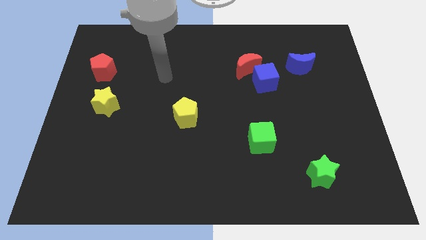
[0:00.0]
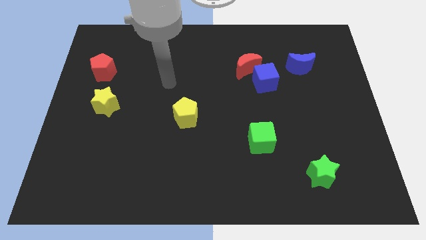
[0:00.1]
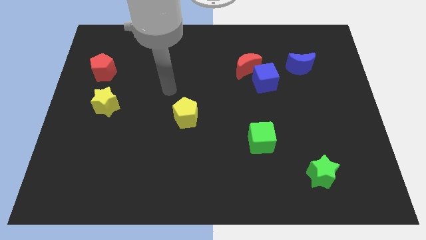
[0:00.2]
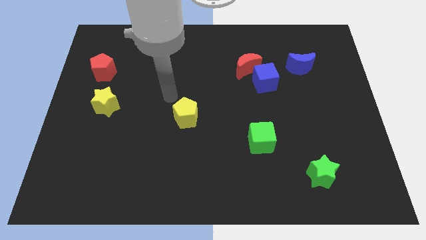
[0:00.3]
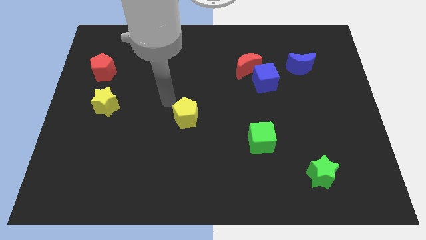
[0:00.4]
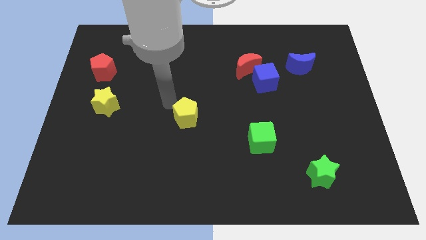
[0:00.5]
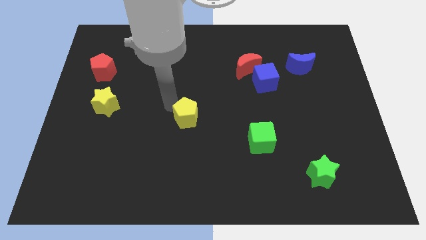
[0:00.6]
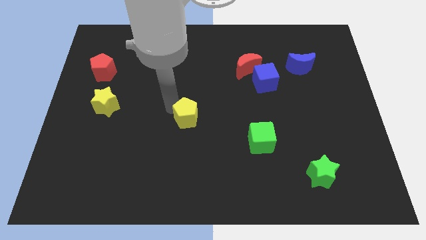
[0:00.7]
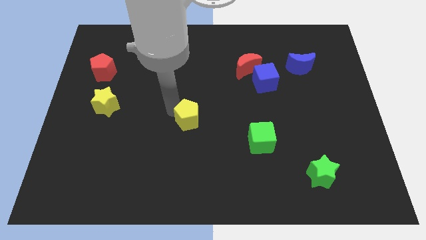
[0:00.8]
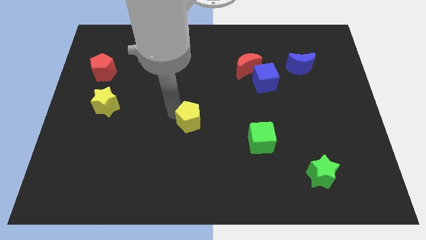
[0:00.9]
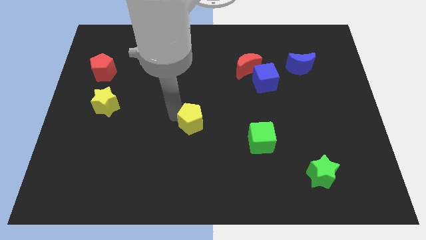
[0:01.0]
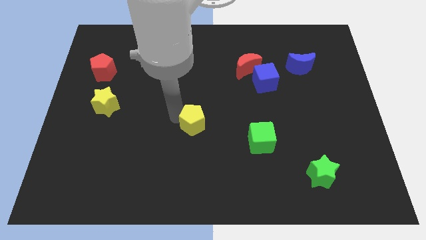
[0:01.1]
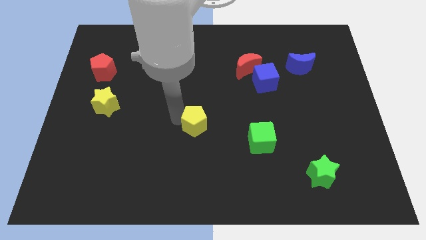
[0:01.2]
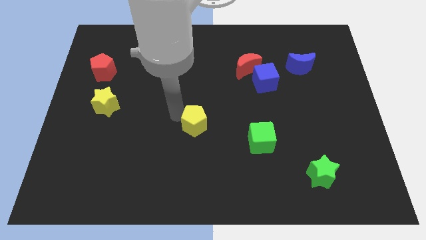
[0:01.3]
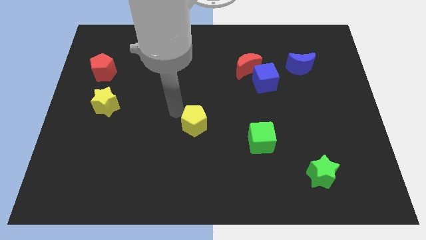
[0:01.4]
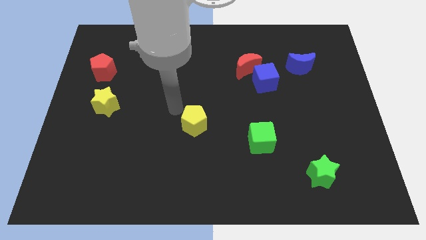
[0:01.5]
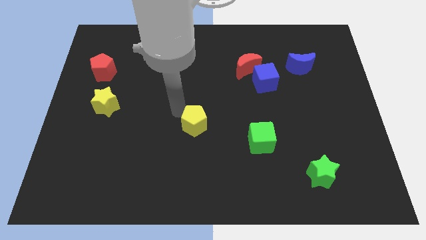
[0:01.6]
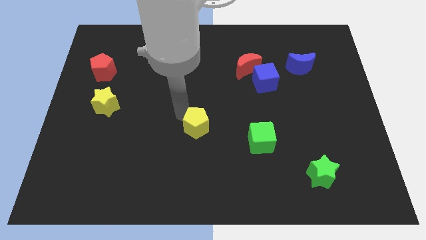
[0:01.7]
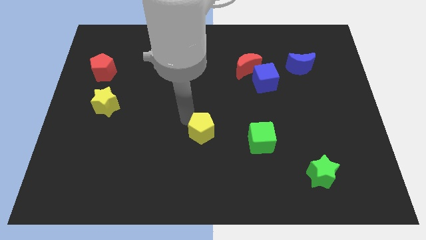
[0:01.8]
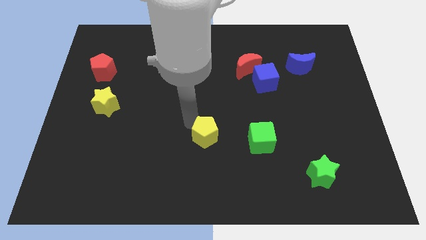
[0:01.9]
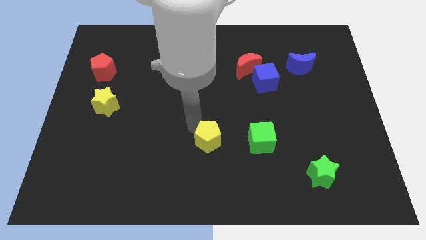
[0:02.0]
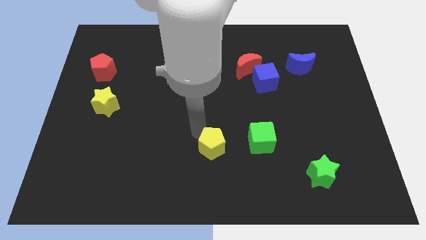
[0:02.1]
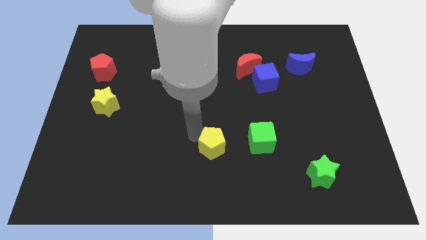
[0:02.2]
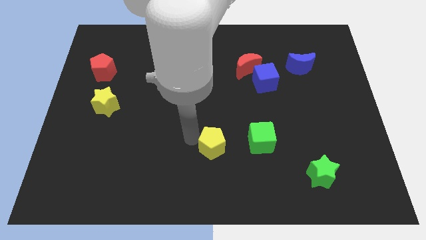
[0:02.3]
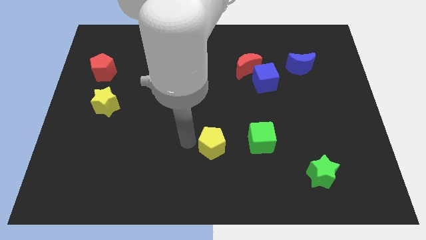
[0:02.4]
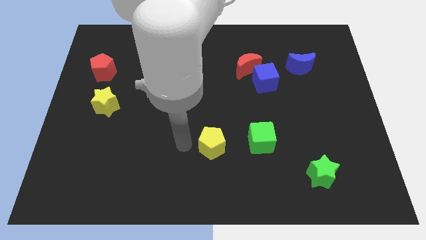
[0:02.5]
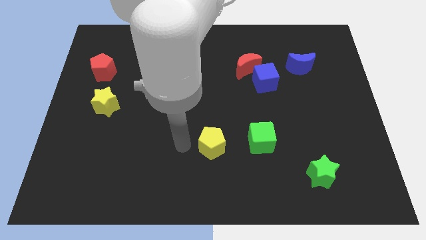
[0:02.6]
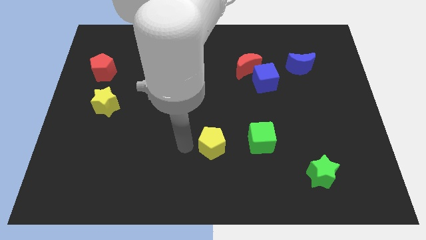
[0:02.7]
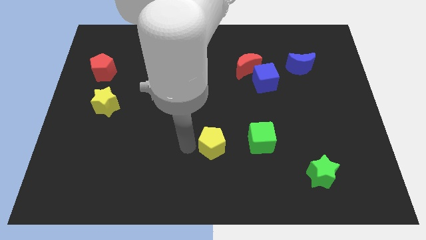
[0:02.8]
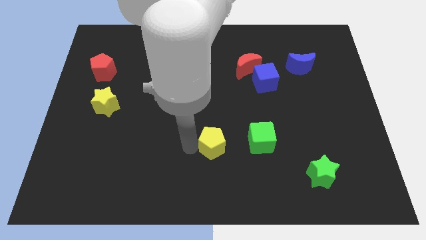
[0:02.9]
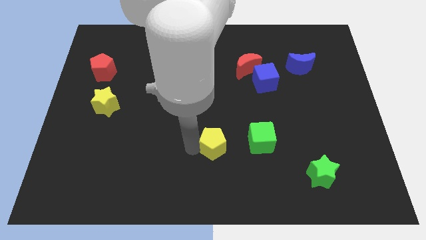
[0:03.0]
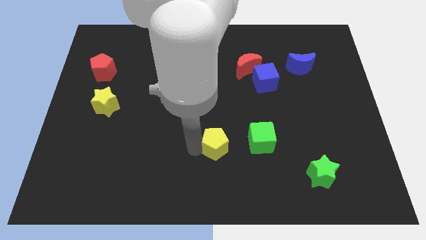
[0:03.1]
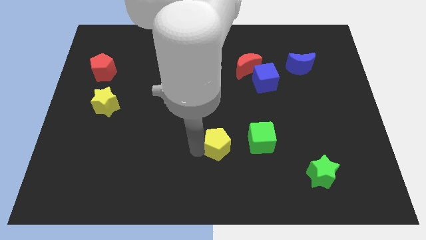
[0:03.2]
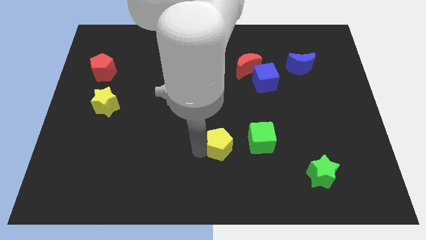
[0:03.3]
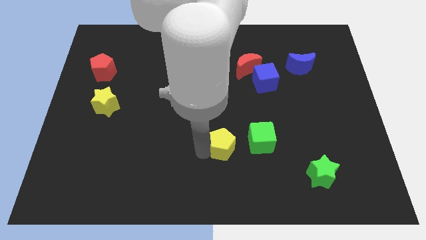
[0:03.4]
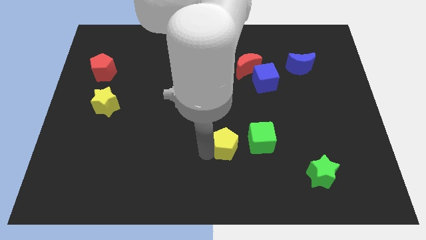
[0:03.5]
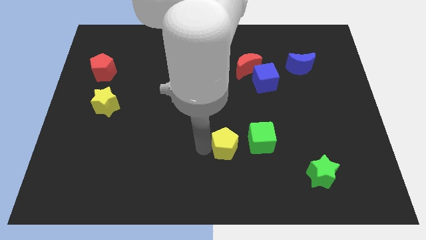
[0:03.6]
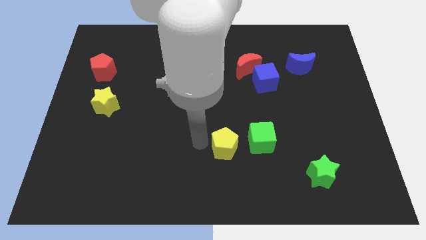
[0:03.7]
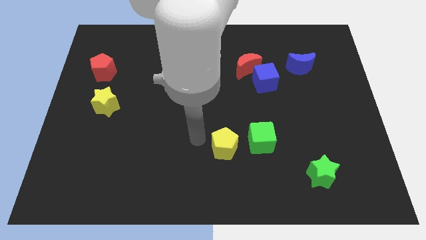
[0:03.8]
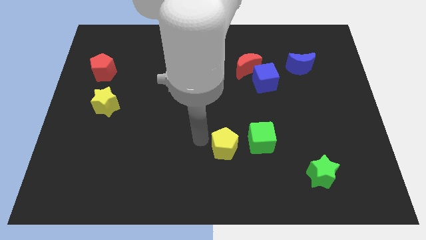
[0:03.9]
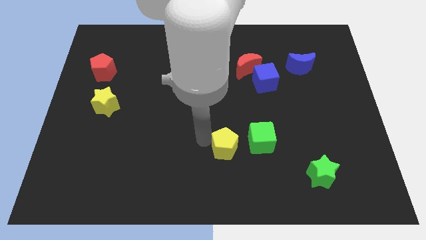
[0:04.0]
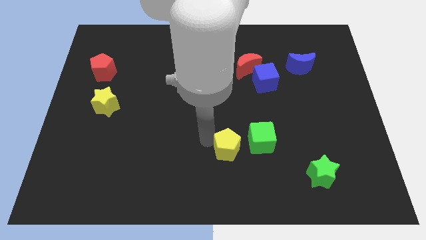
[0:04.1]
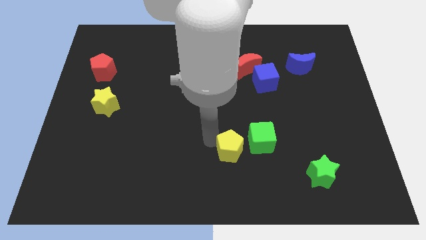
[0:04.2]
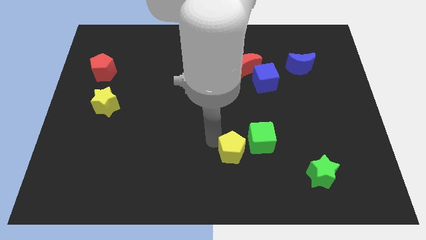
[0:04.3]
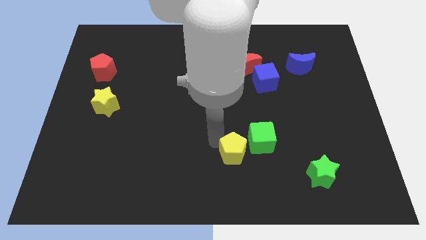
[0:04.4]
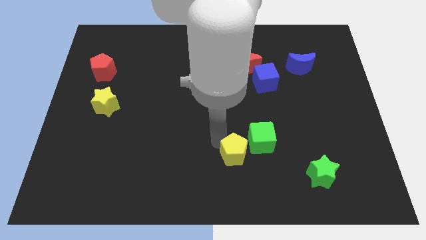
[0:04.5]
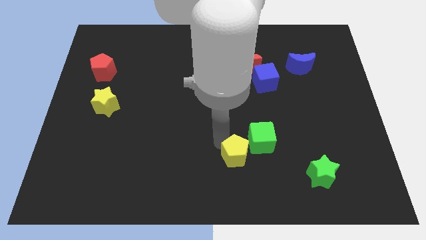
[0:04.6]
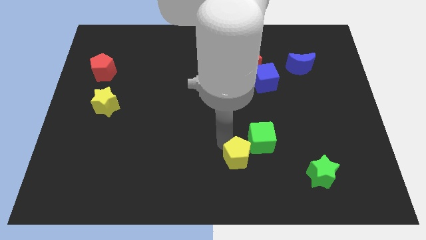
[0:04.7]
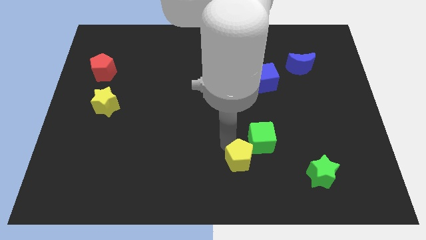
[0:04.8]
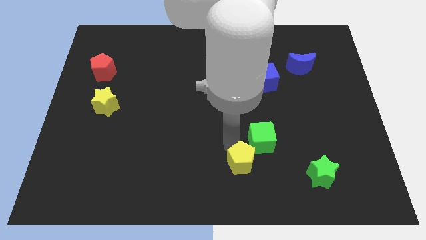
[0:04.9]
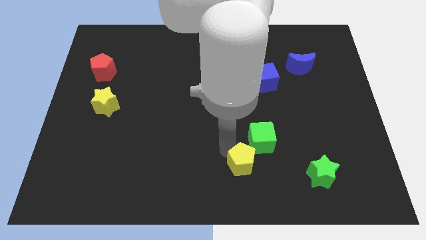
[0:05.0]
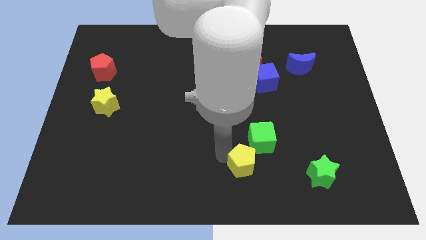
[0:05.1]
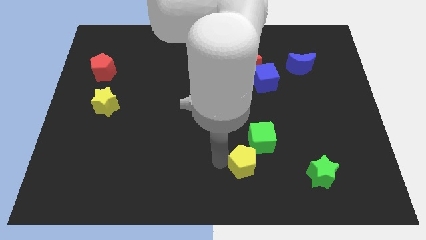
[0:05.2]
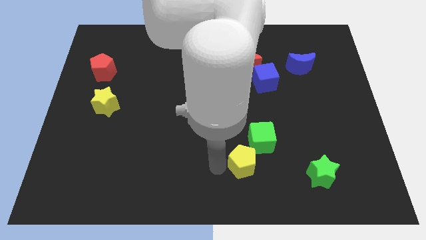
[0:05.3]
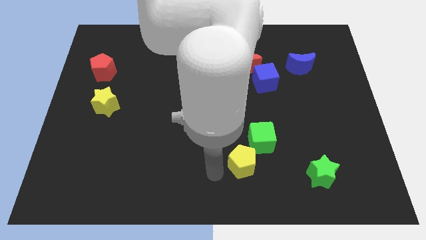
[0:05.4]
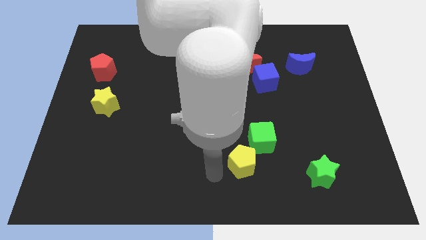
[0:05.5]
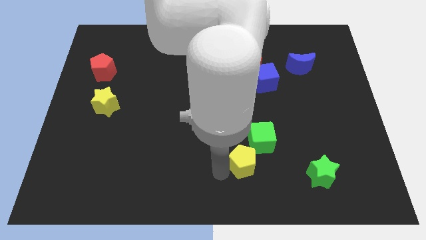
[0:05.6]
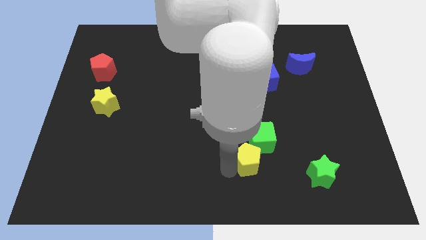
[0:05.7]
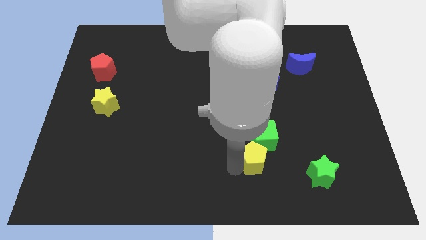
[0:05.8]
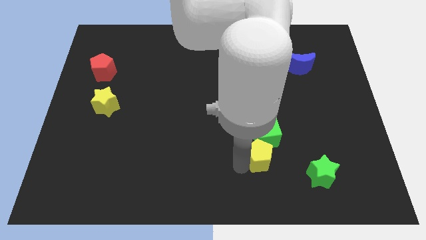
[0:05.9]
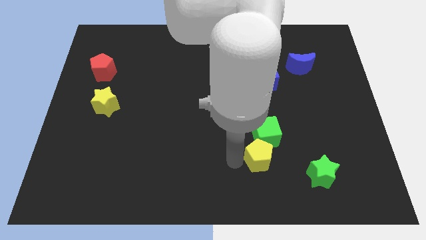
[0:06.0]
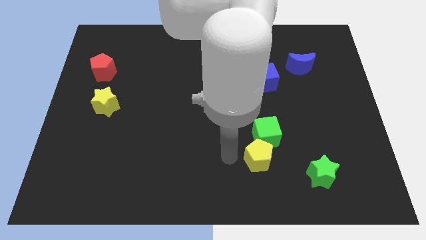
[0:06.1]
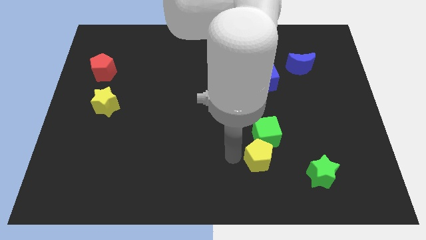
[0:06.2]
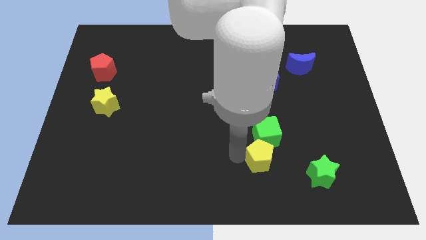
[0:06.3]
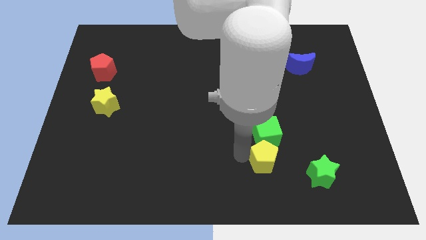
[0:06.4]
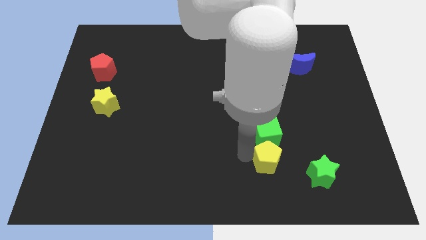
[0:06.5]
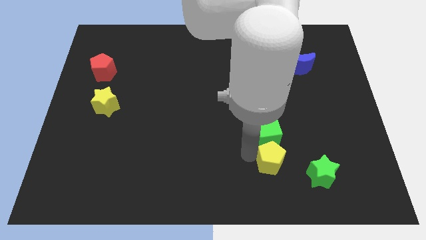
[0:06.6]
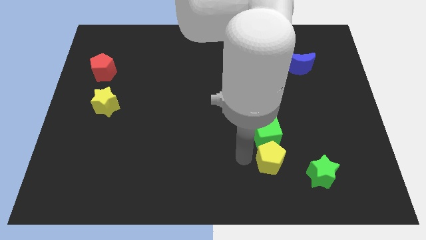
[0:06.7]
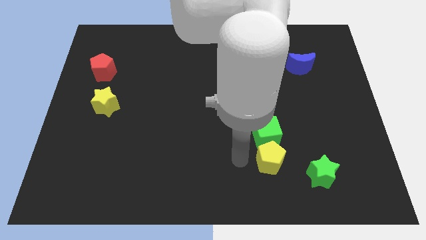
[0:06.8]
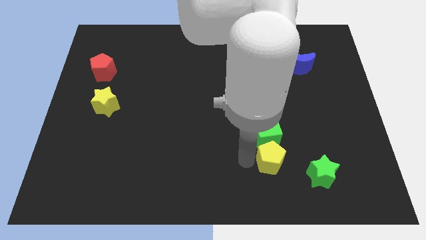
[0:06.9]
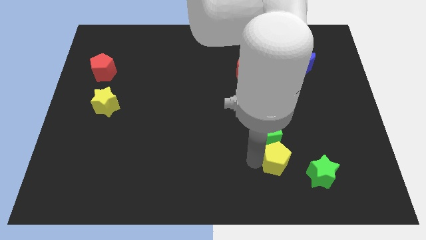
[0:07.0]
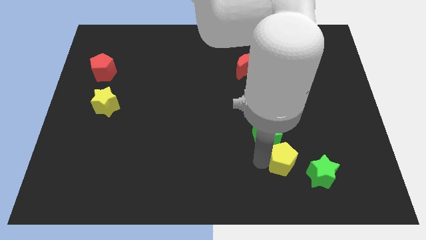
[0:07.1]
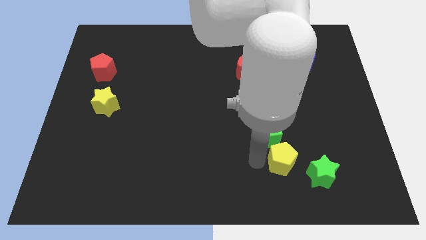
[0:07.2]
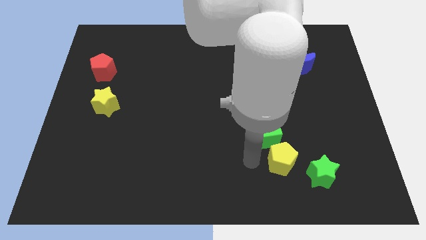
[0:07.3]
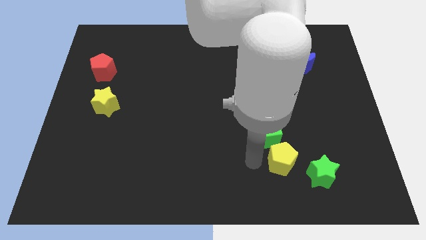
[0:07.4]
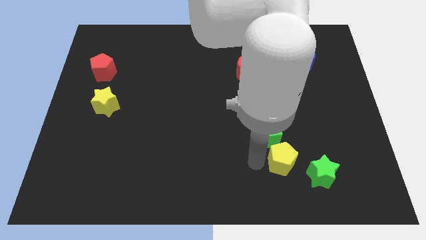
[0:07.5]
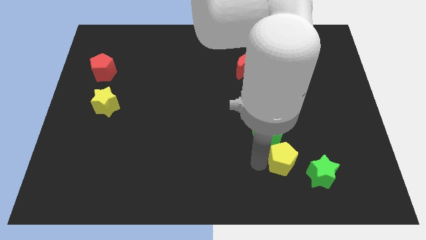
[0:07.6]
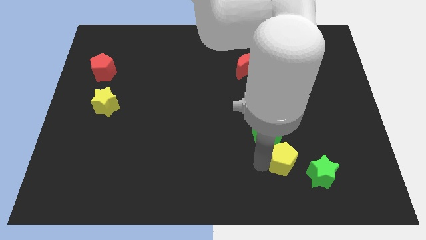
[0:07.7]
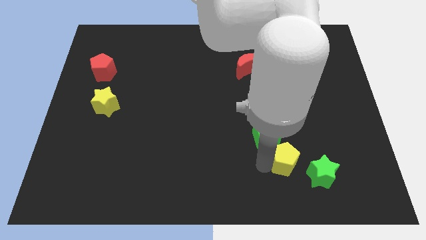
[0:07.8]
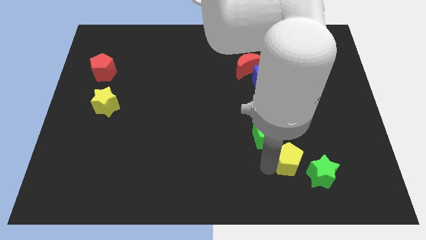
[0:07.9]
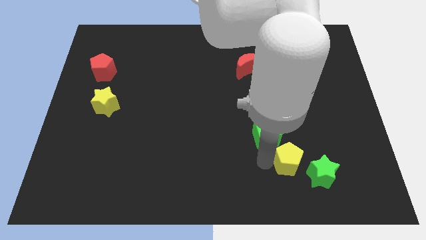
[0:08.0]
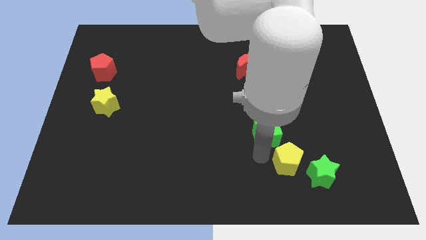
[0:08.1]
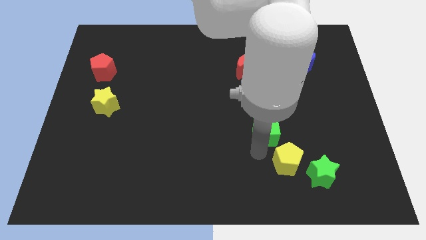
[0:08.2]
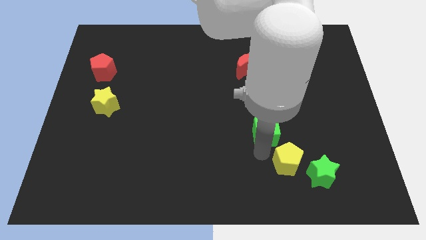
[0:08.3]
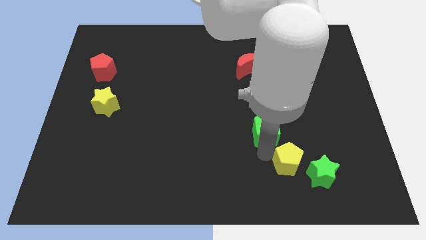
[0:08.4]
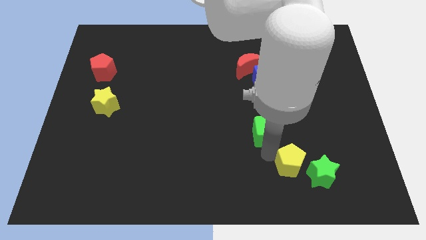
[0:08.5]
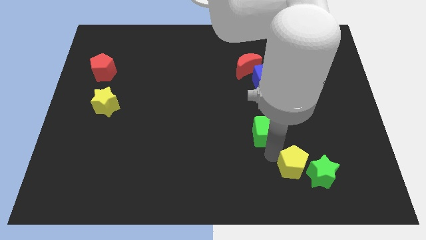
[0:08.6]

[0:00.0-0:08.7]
move the yellow pentagon towards the green star
